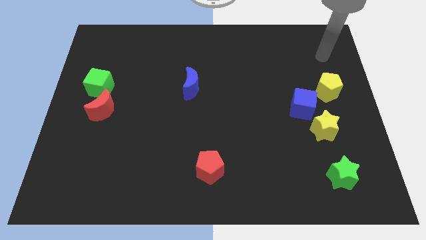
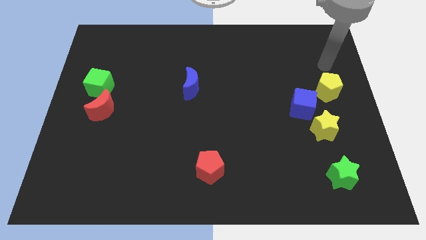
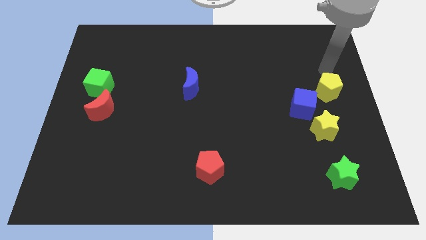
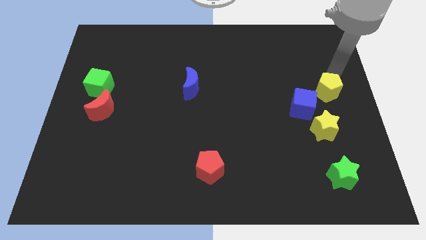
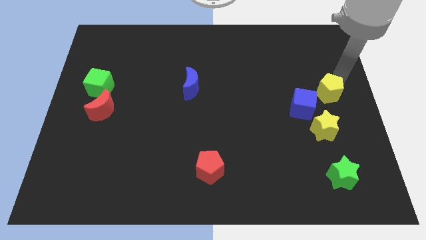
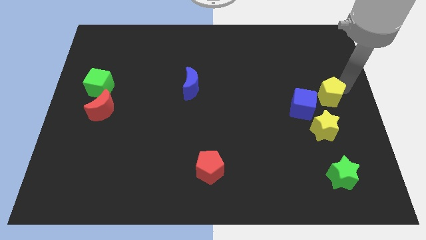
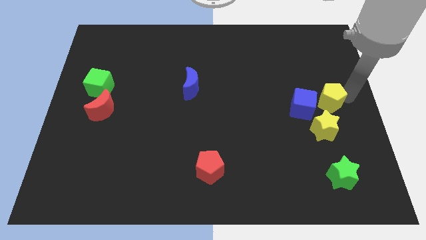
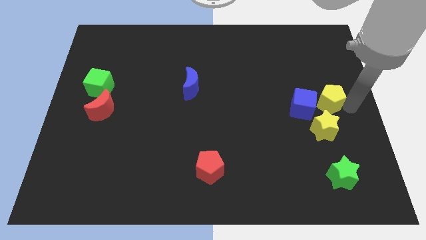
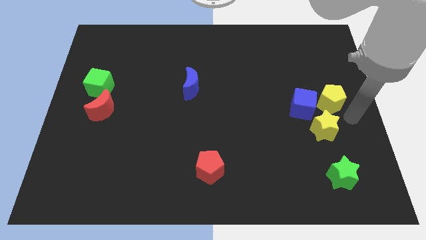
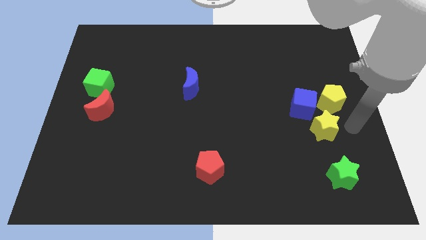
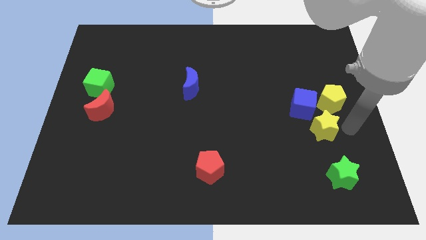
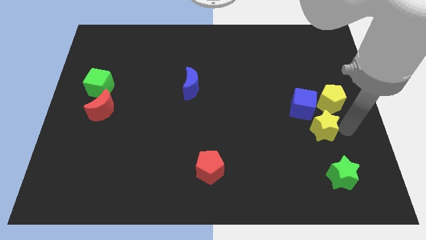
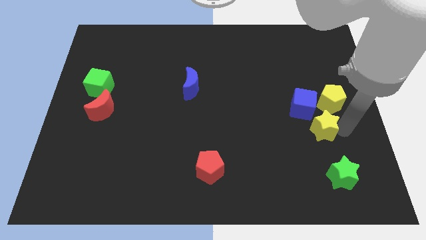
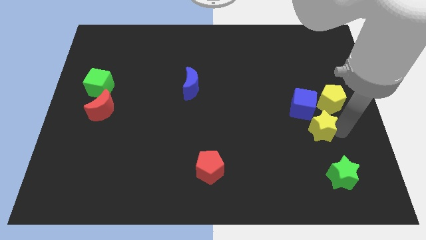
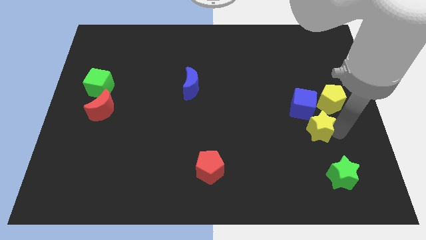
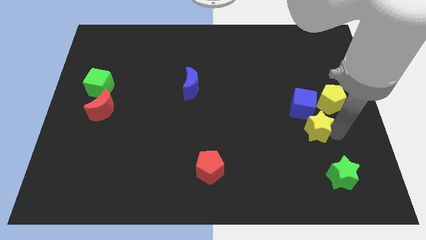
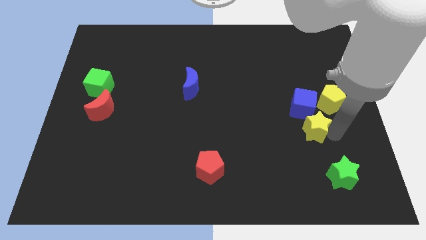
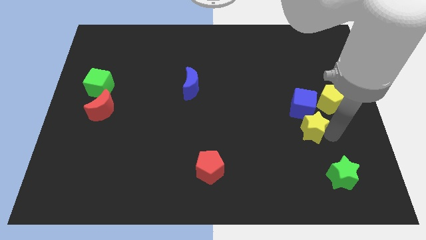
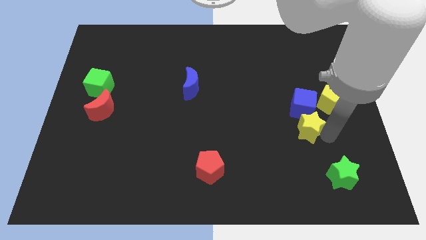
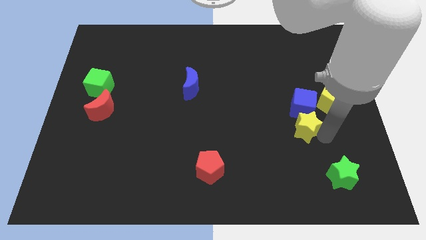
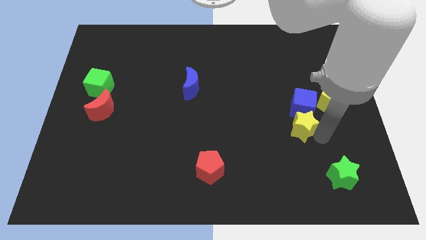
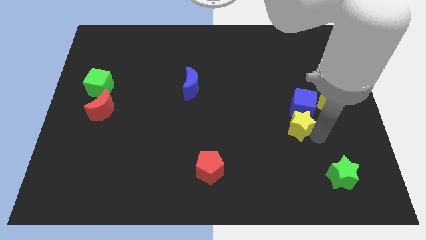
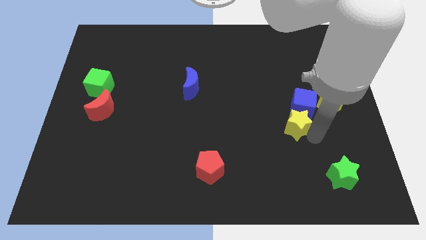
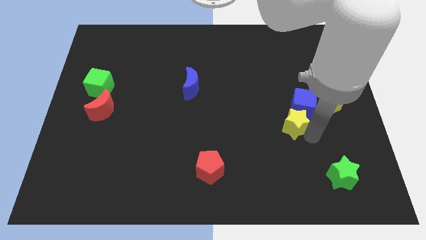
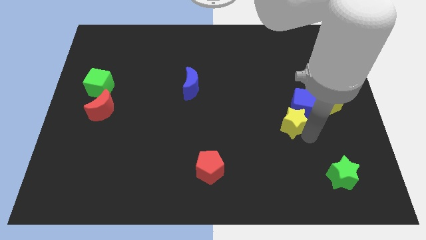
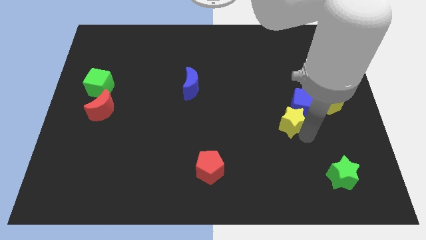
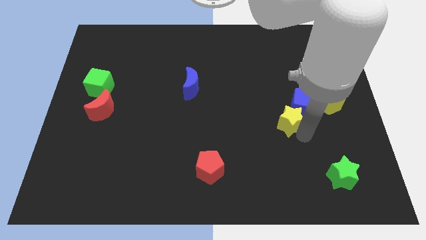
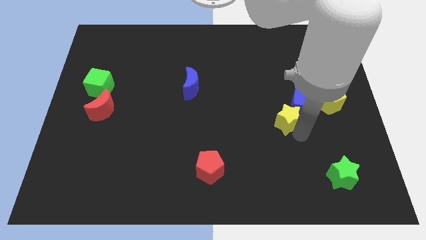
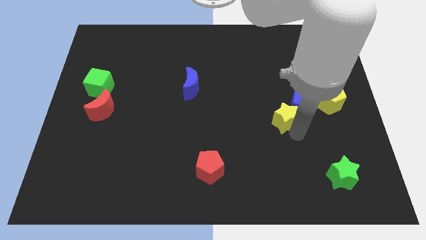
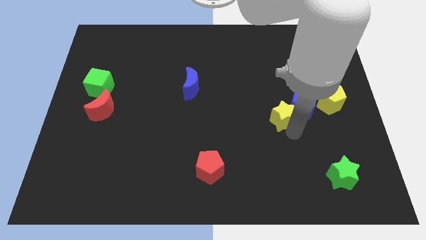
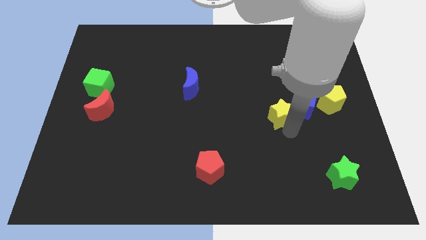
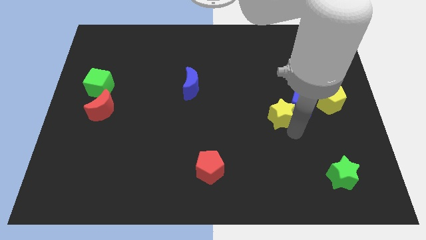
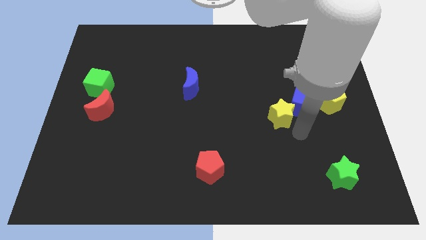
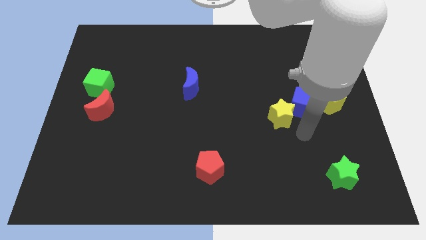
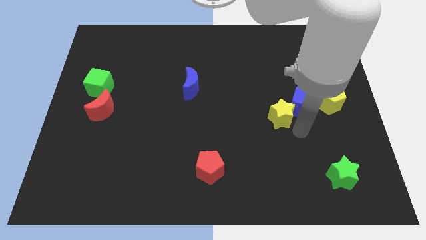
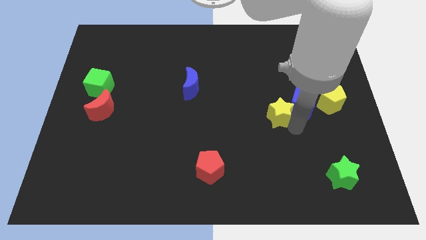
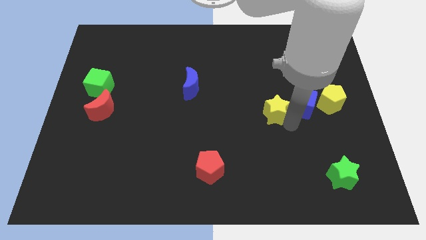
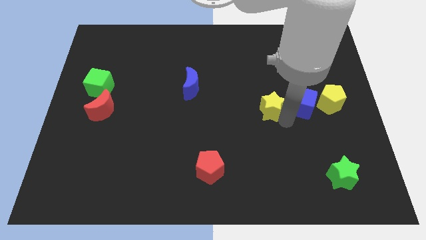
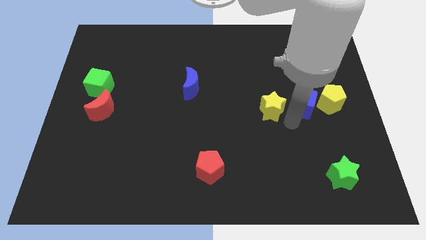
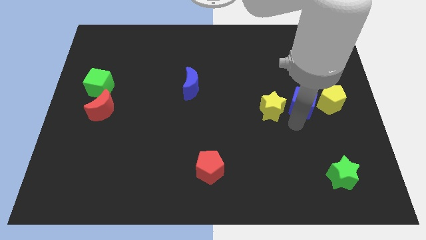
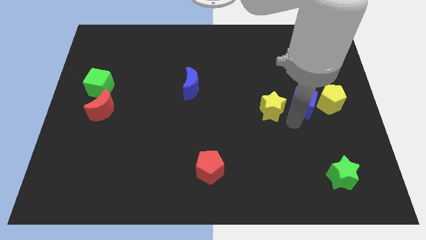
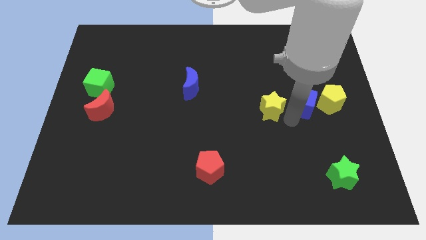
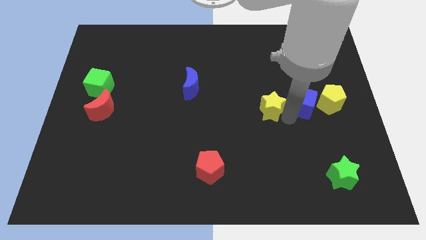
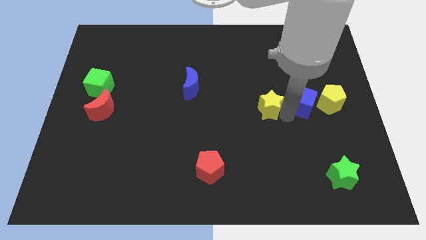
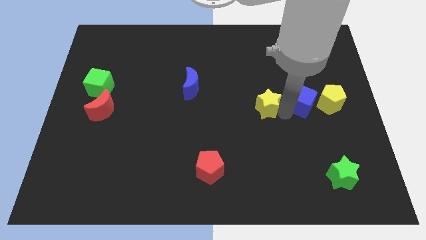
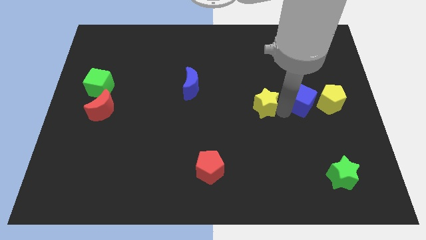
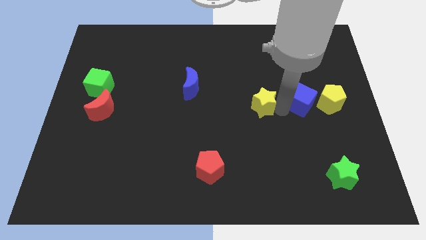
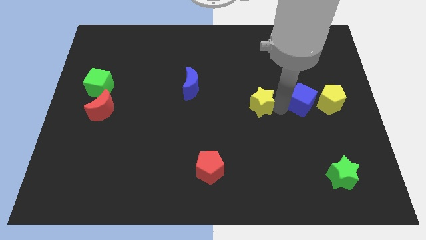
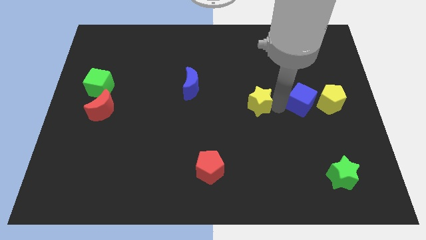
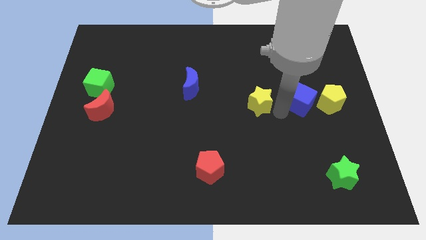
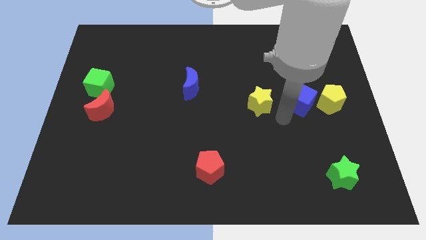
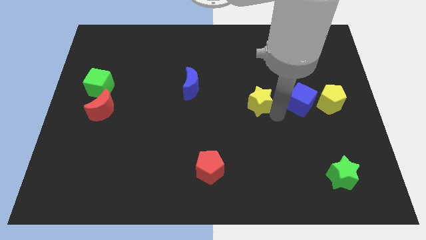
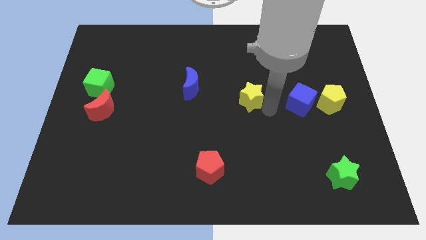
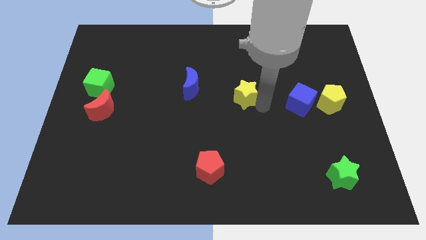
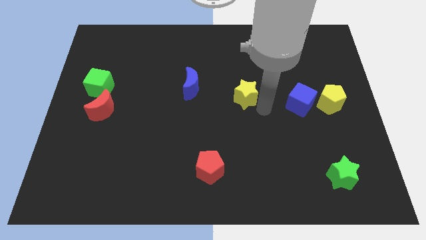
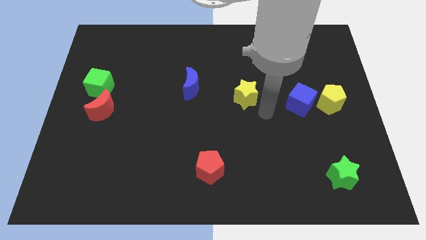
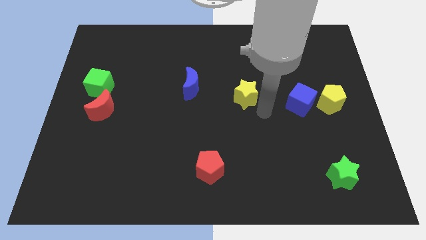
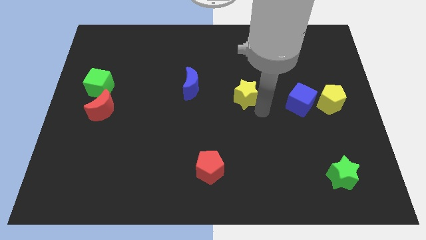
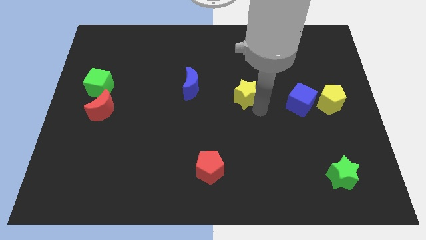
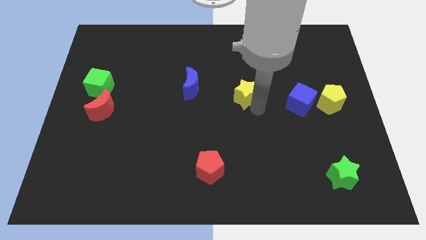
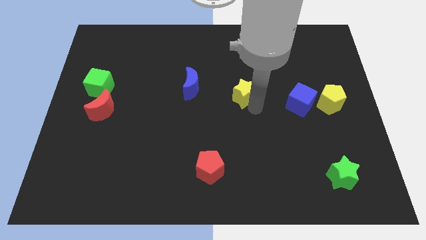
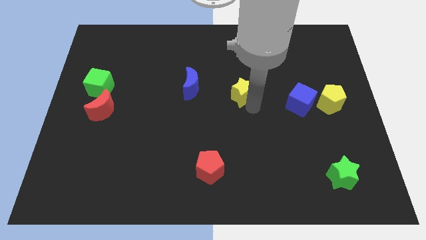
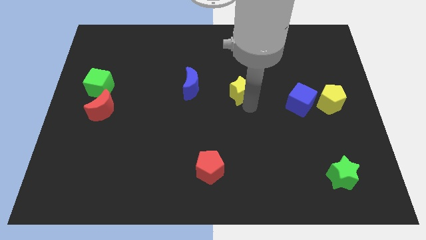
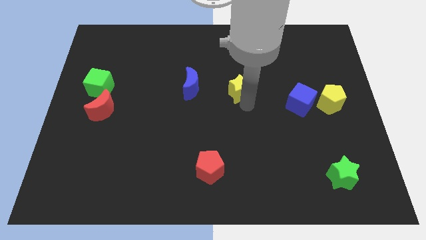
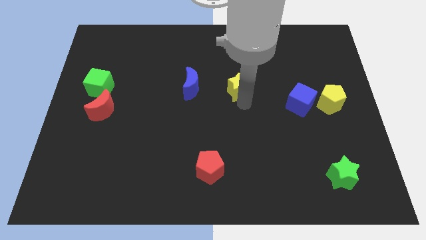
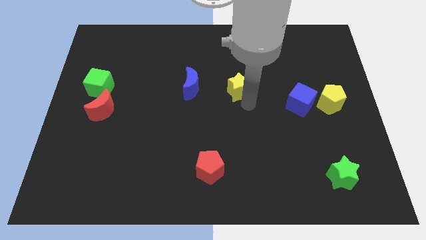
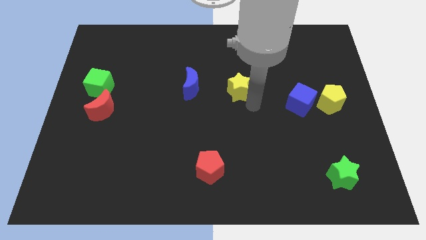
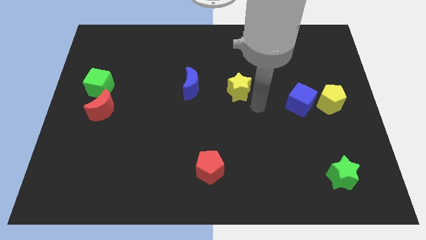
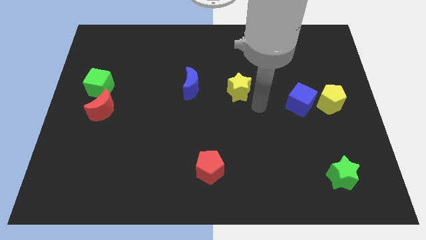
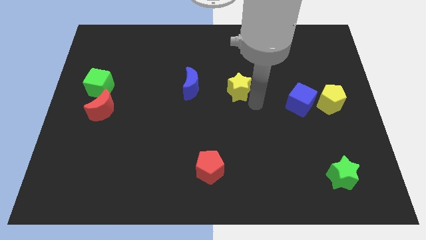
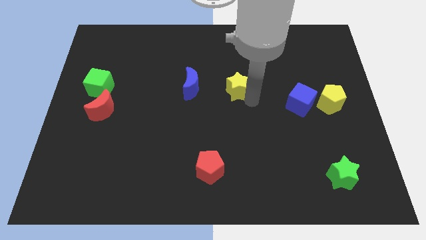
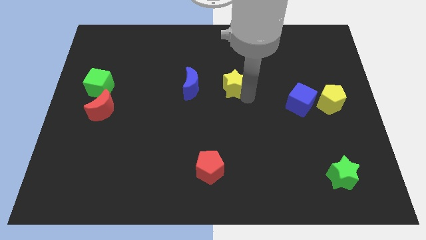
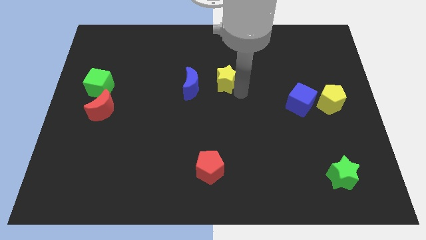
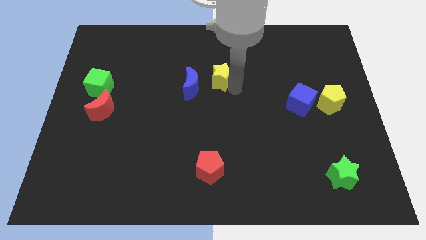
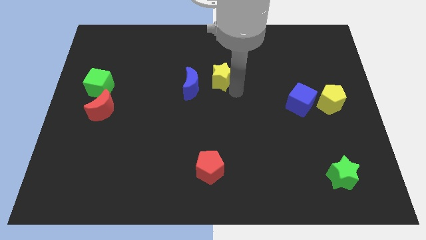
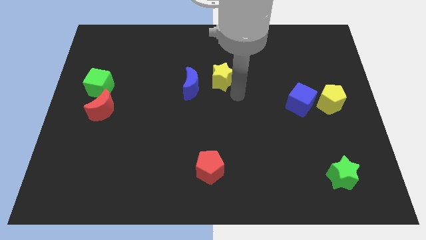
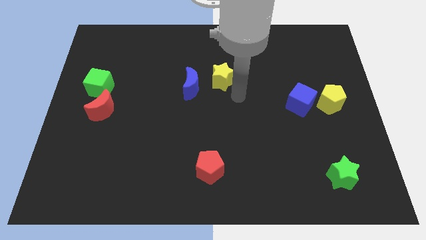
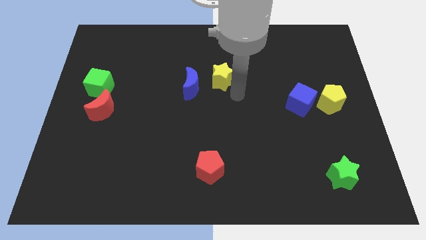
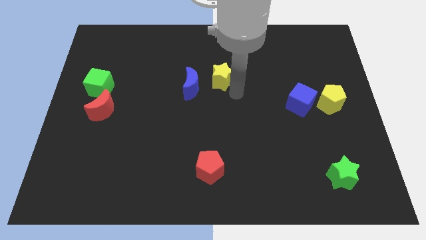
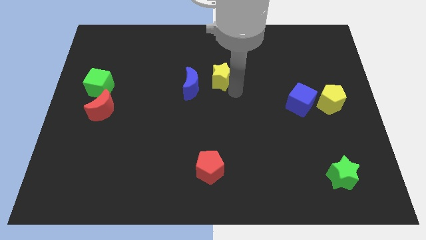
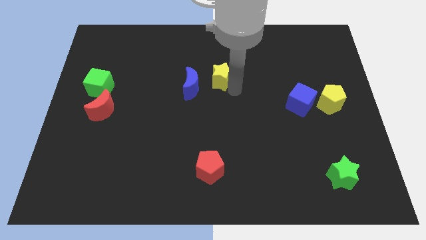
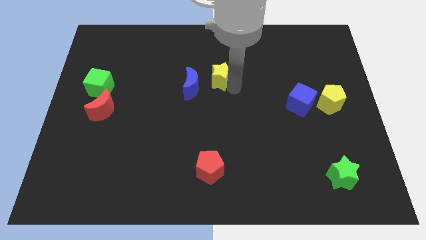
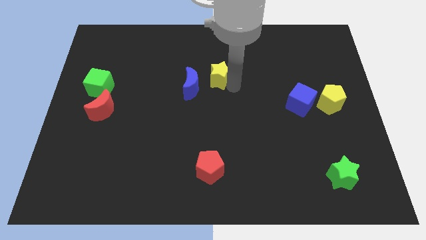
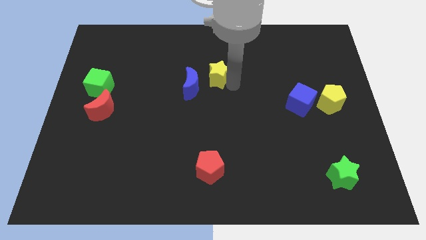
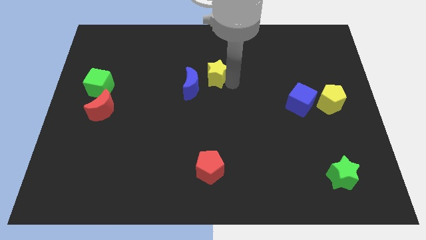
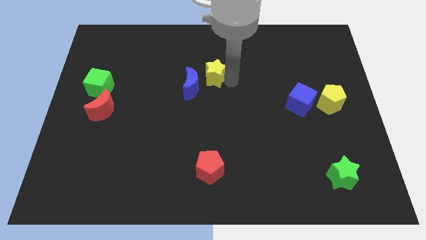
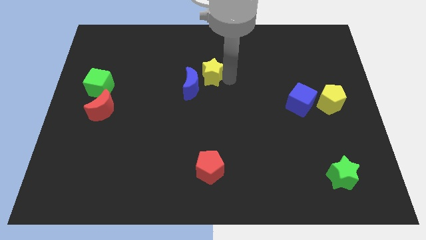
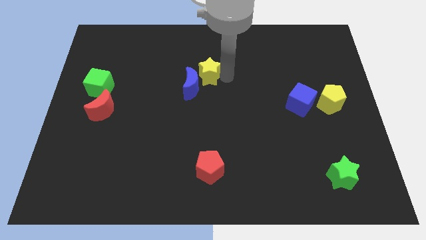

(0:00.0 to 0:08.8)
slide the yellow star above the blue moon
